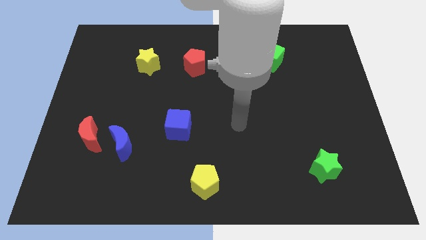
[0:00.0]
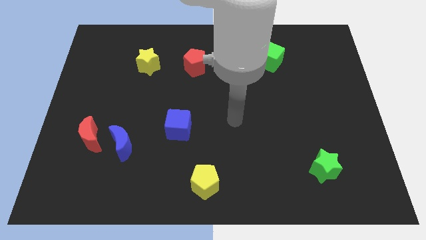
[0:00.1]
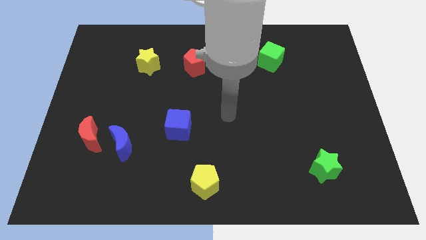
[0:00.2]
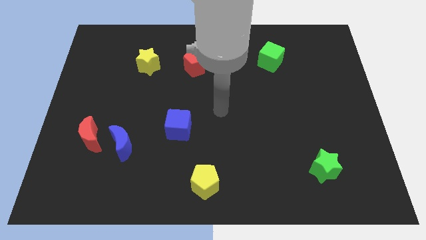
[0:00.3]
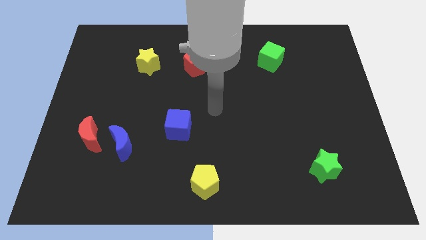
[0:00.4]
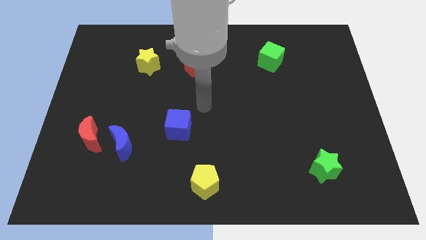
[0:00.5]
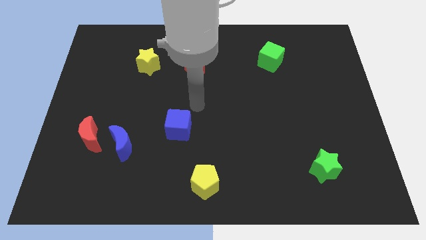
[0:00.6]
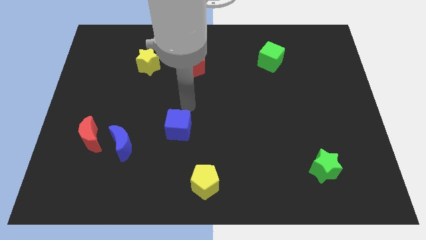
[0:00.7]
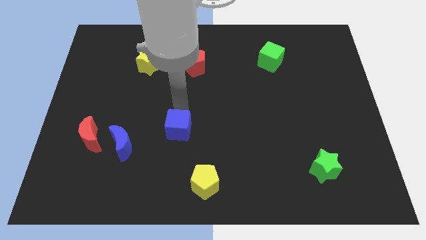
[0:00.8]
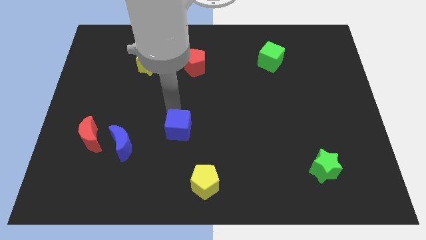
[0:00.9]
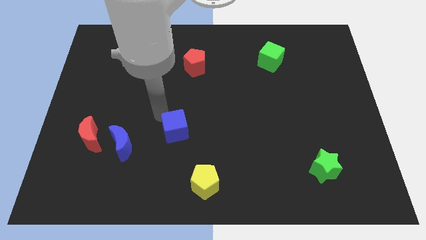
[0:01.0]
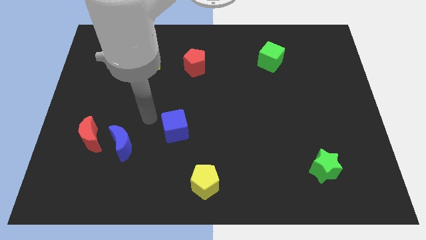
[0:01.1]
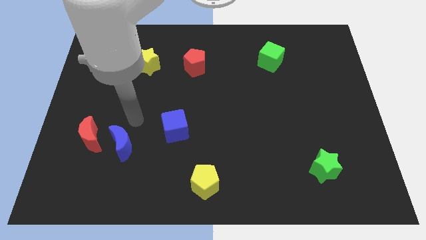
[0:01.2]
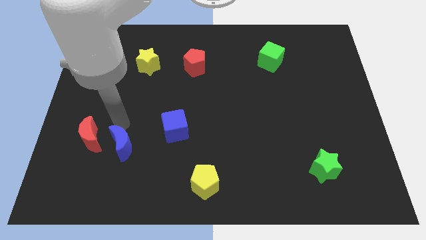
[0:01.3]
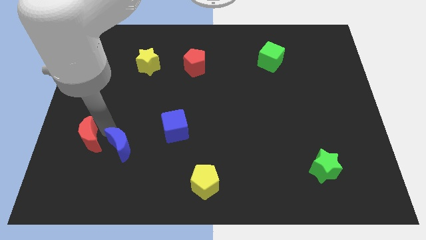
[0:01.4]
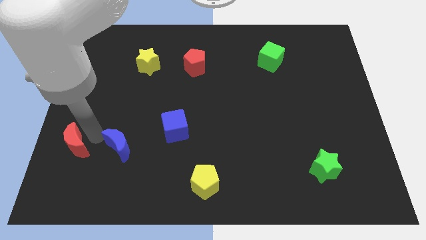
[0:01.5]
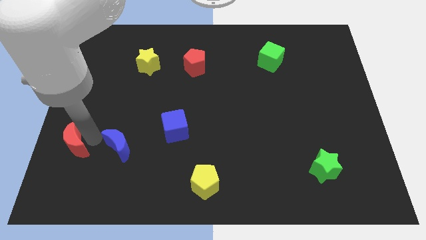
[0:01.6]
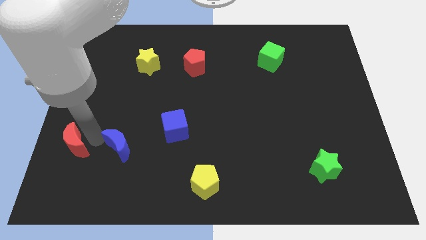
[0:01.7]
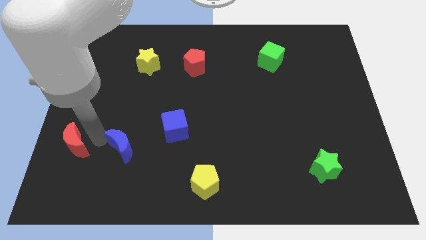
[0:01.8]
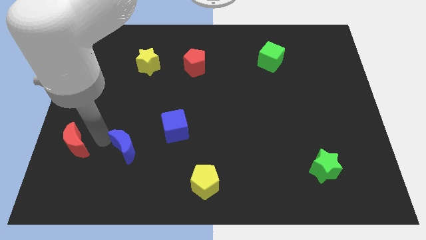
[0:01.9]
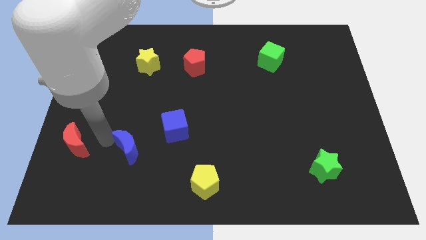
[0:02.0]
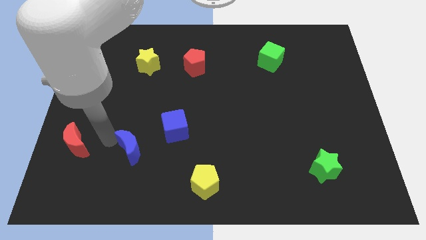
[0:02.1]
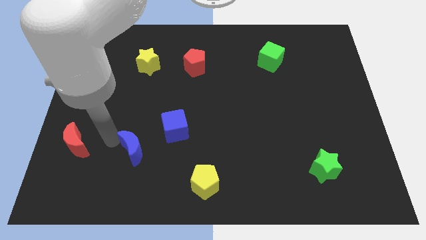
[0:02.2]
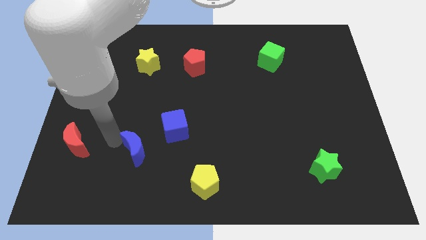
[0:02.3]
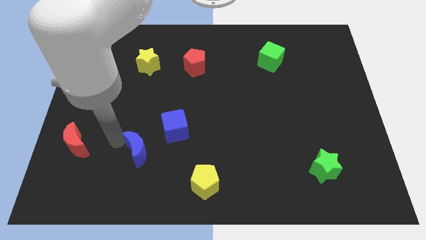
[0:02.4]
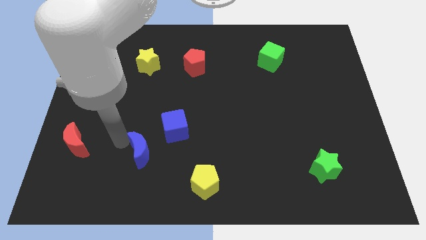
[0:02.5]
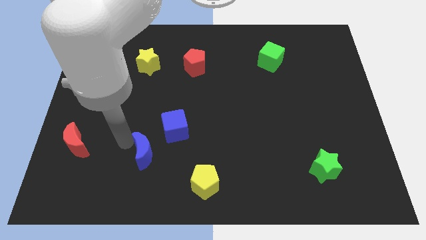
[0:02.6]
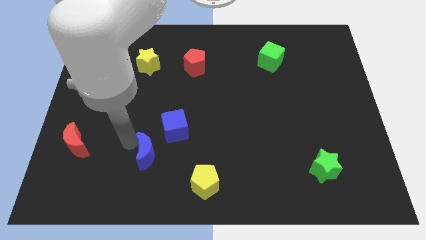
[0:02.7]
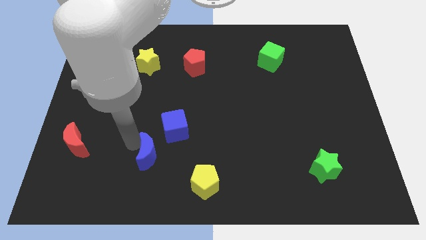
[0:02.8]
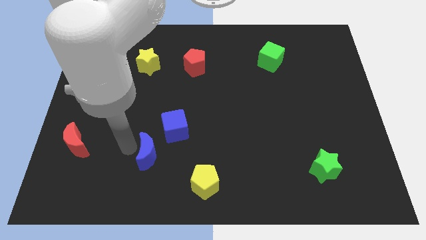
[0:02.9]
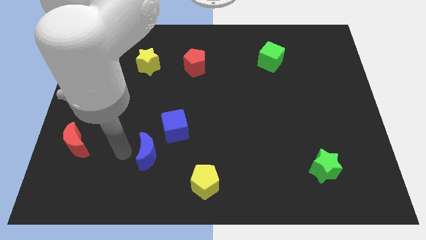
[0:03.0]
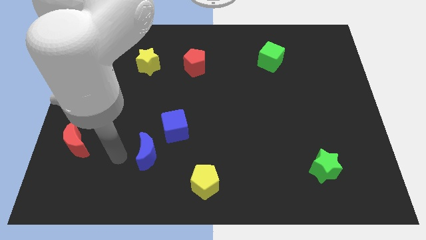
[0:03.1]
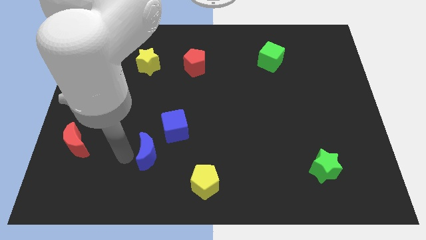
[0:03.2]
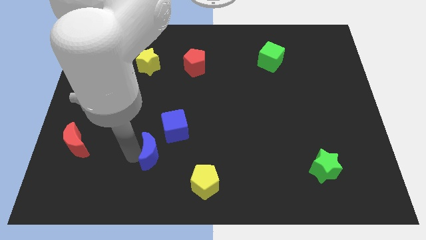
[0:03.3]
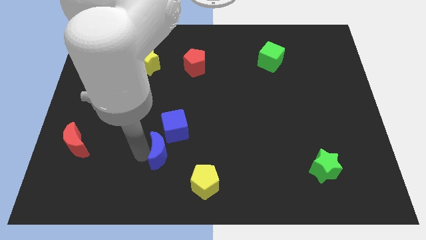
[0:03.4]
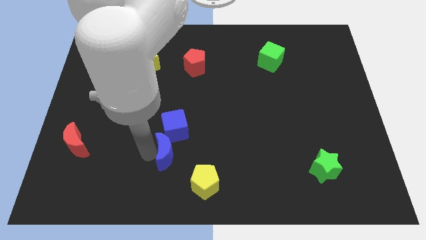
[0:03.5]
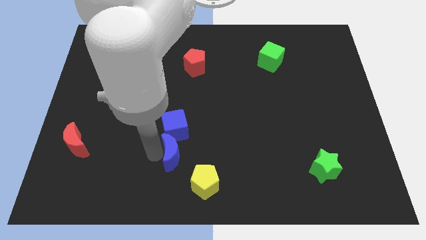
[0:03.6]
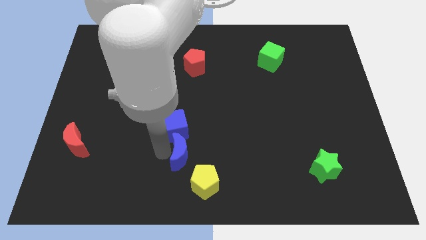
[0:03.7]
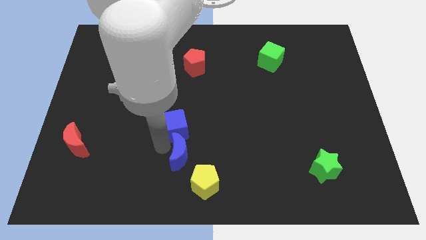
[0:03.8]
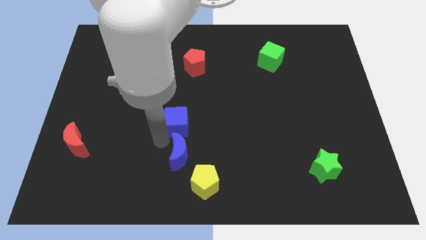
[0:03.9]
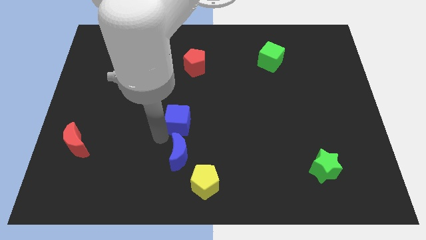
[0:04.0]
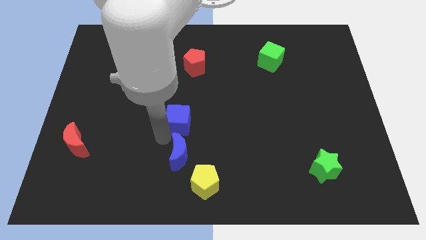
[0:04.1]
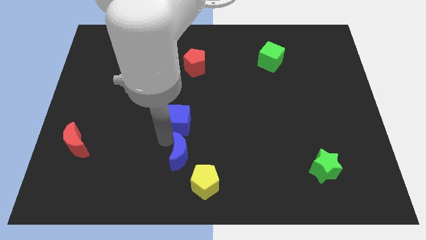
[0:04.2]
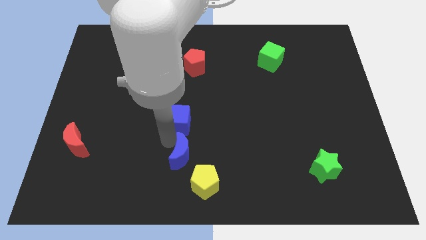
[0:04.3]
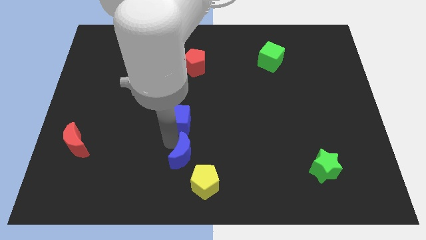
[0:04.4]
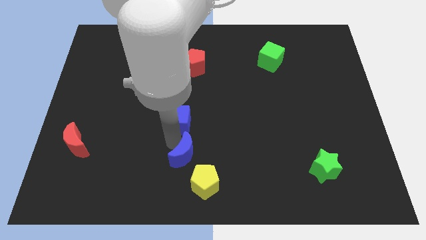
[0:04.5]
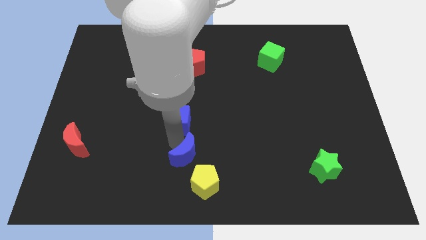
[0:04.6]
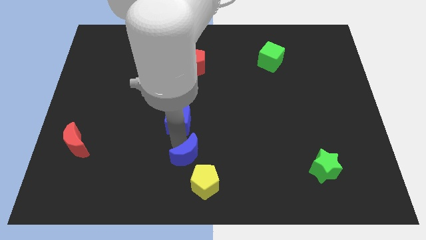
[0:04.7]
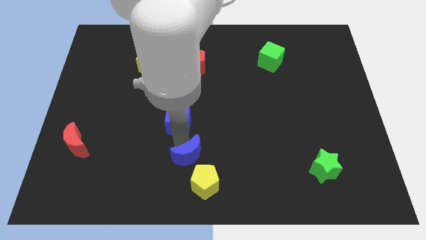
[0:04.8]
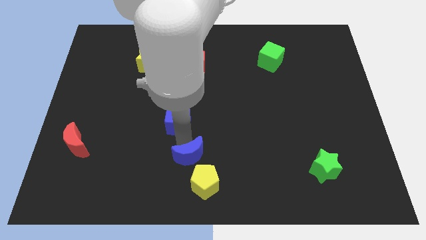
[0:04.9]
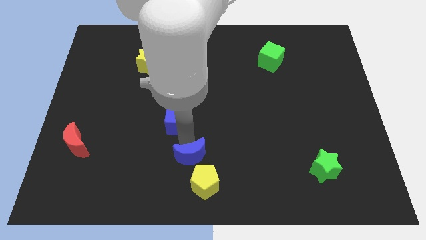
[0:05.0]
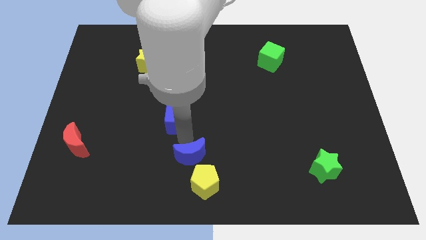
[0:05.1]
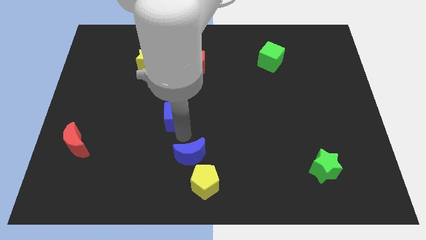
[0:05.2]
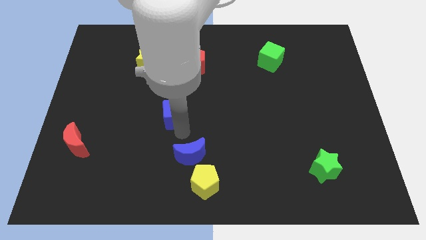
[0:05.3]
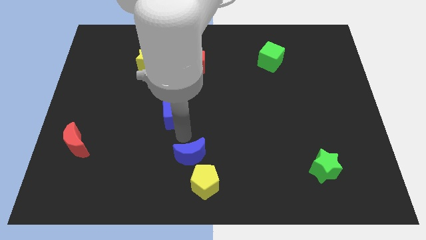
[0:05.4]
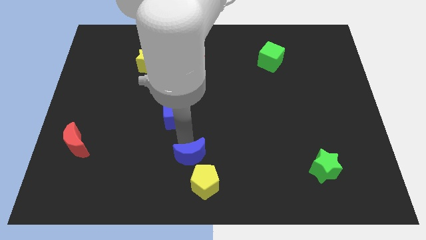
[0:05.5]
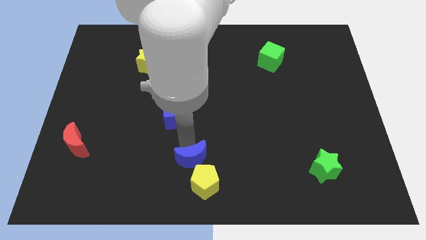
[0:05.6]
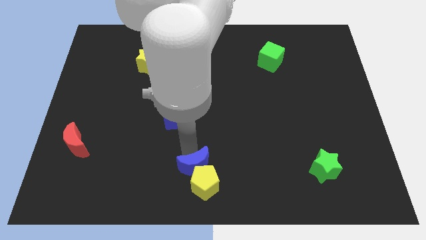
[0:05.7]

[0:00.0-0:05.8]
slide the blue moon close to the yellow pentagon

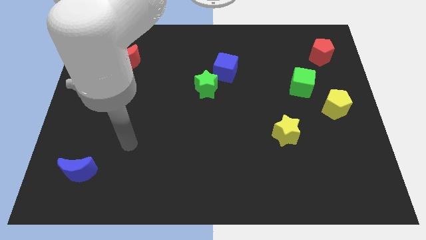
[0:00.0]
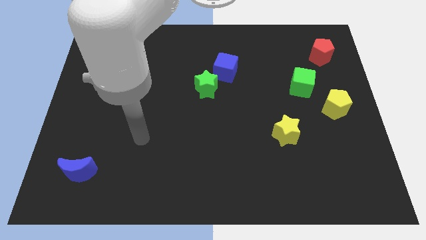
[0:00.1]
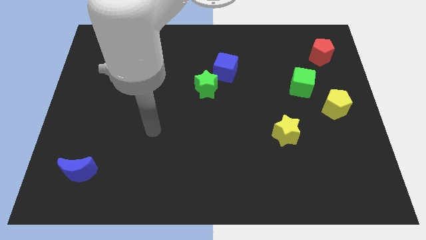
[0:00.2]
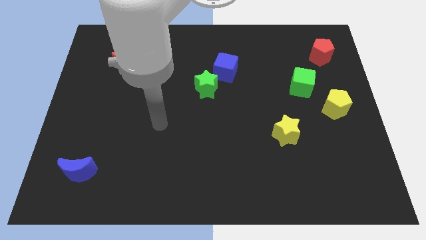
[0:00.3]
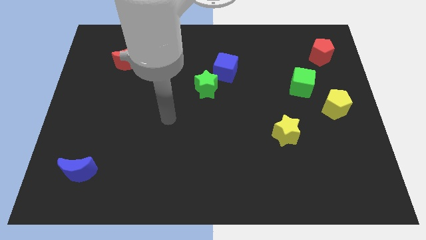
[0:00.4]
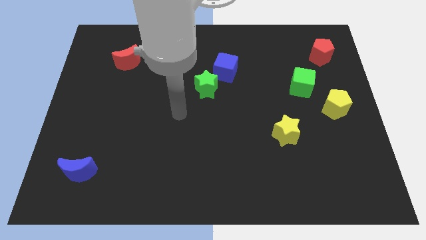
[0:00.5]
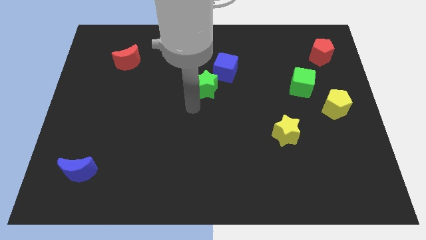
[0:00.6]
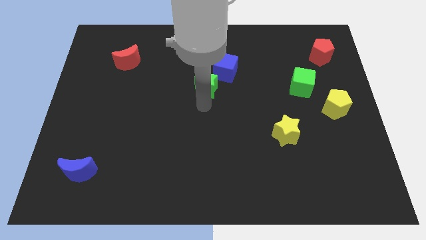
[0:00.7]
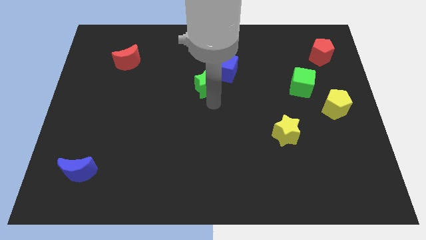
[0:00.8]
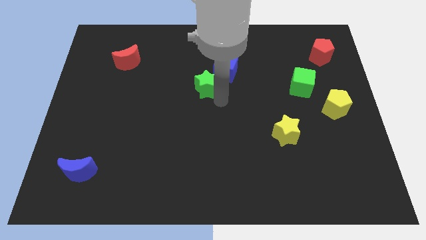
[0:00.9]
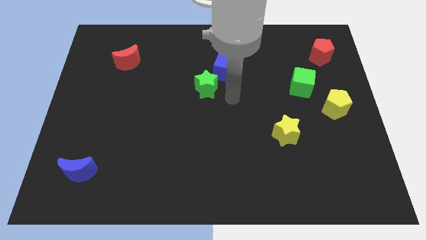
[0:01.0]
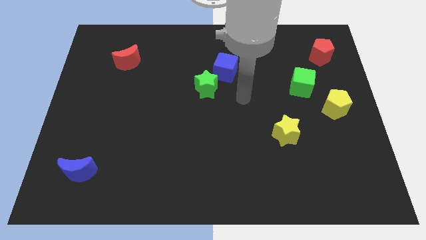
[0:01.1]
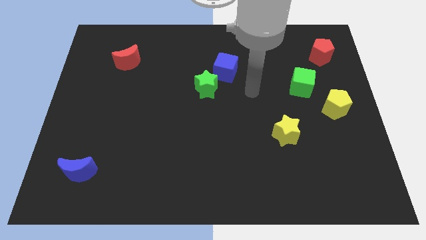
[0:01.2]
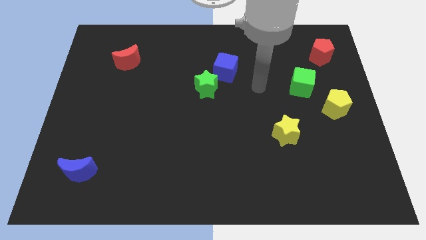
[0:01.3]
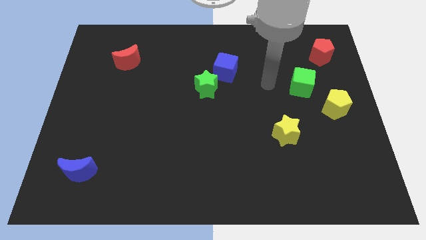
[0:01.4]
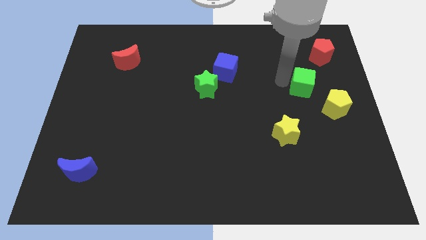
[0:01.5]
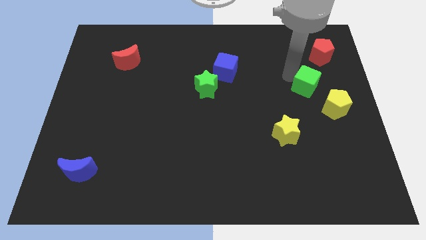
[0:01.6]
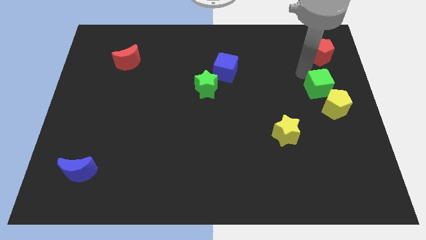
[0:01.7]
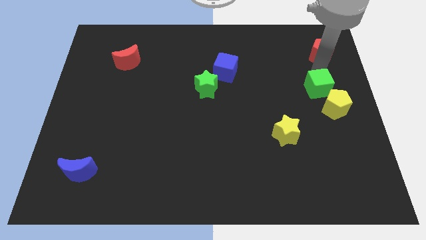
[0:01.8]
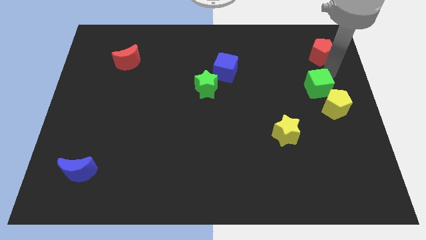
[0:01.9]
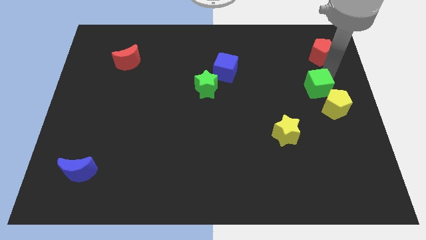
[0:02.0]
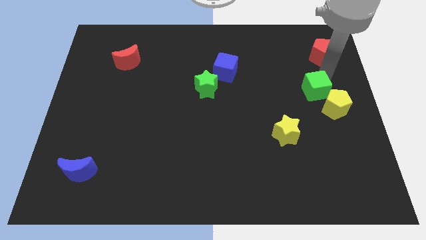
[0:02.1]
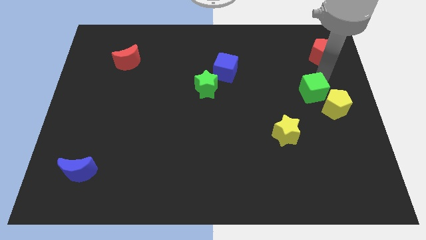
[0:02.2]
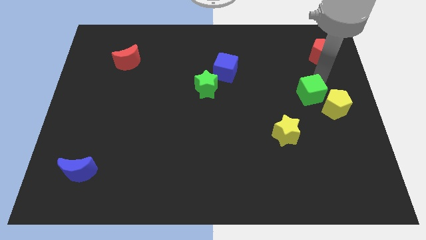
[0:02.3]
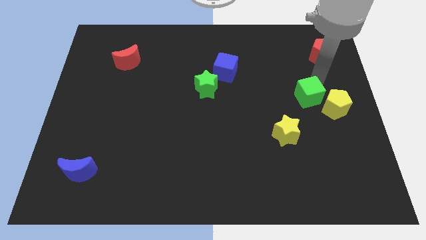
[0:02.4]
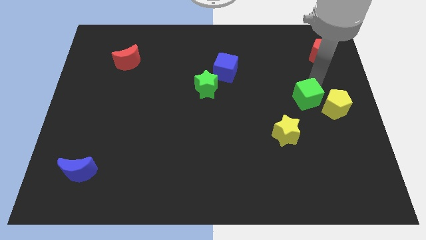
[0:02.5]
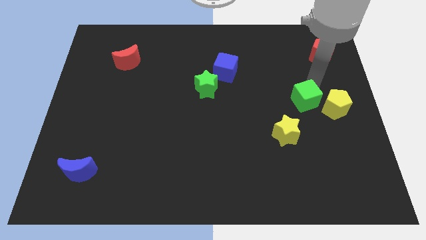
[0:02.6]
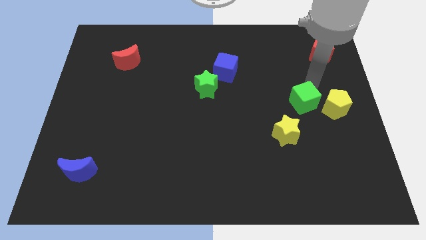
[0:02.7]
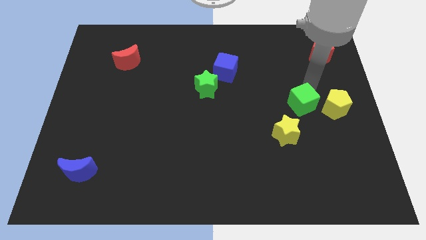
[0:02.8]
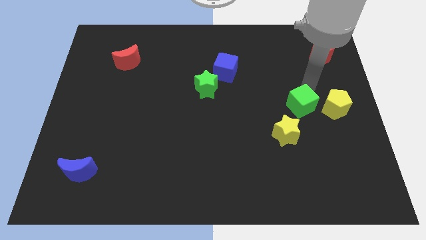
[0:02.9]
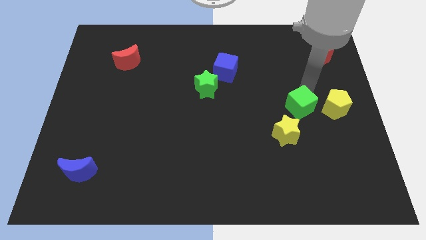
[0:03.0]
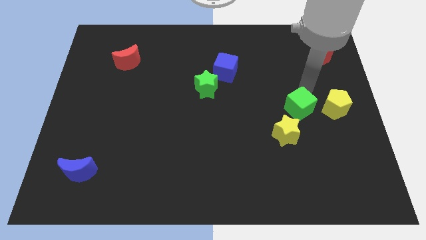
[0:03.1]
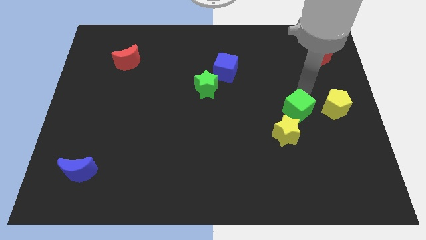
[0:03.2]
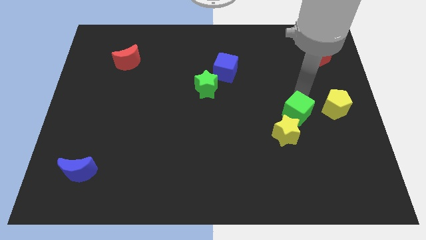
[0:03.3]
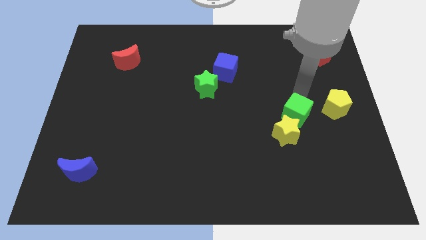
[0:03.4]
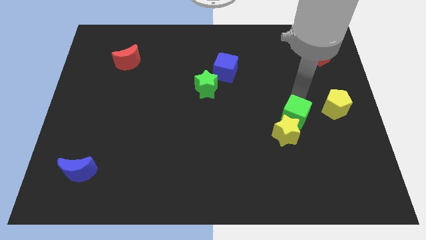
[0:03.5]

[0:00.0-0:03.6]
slide the green cube to the yellow star
